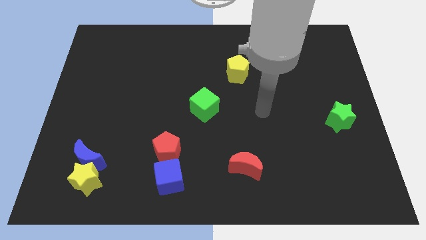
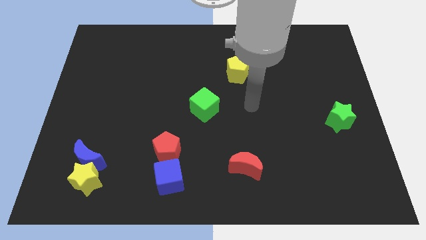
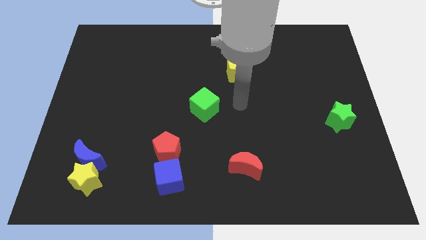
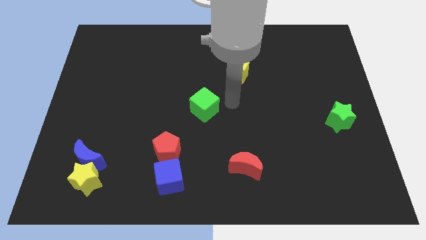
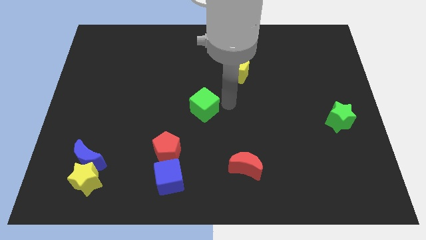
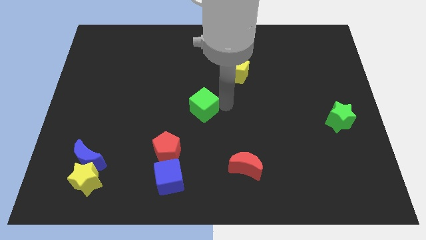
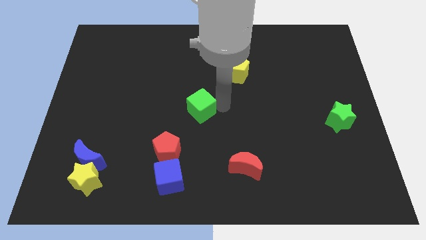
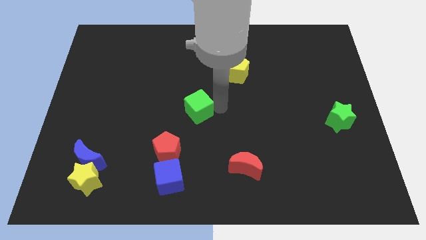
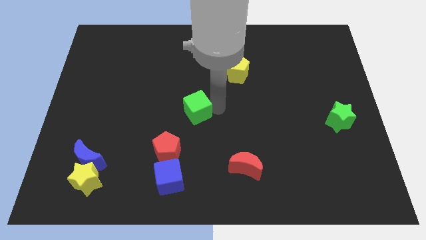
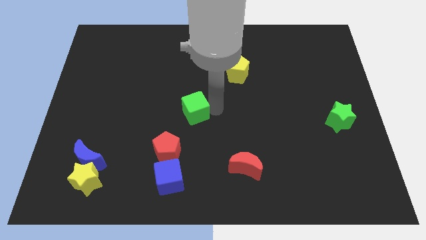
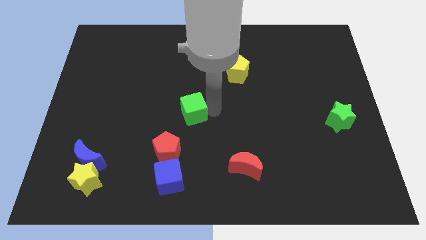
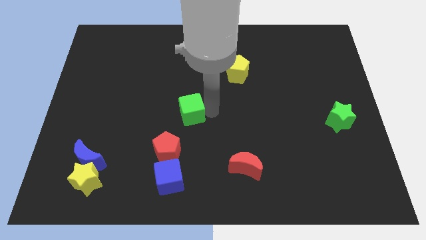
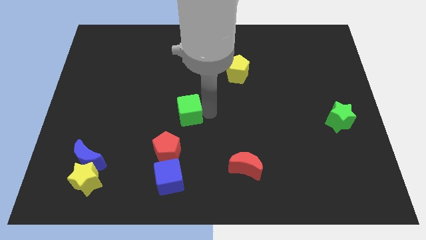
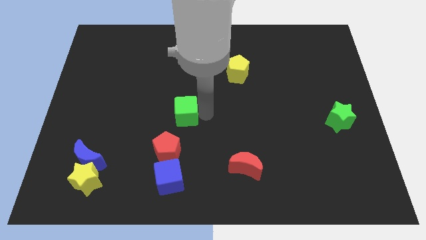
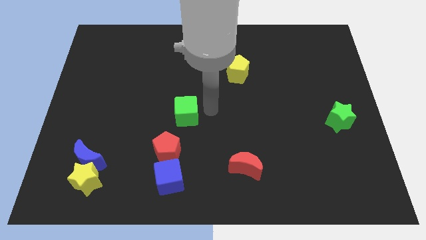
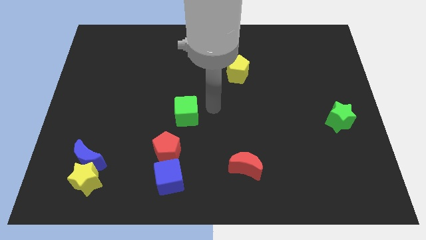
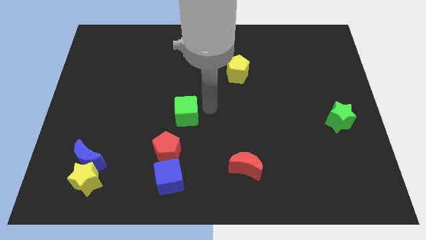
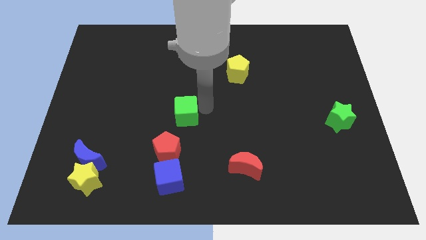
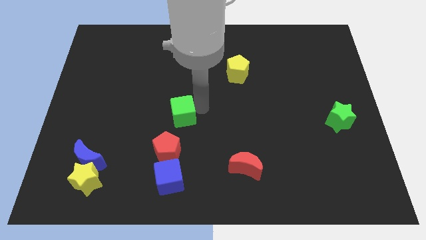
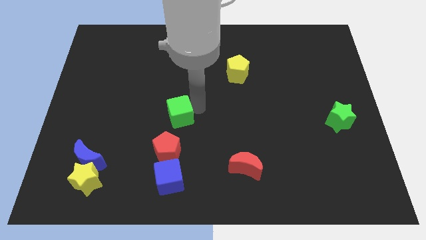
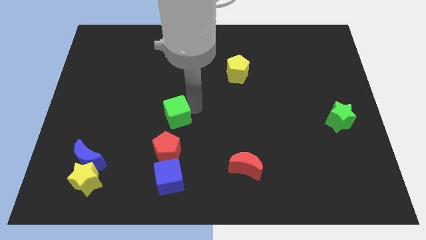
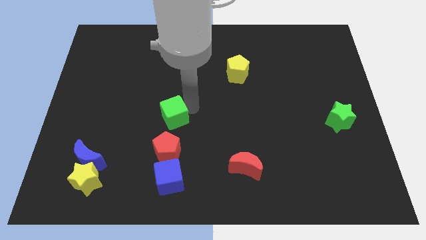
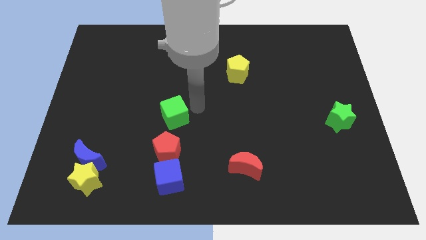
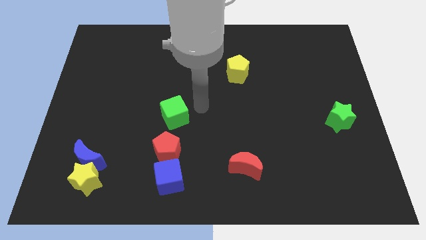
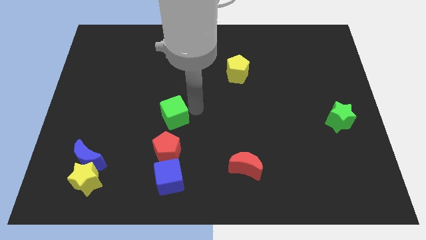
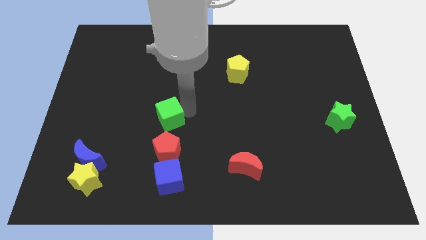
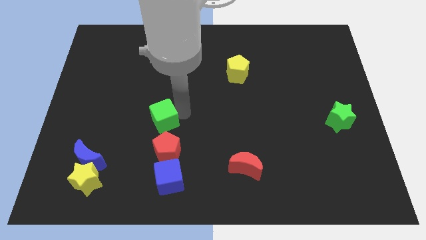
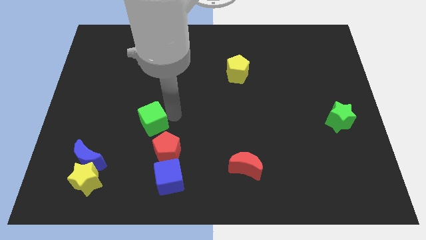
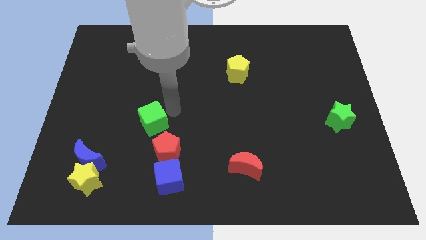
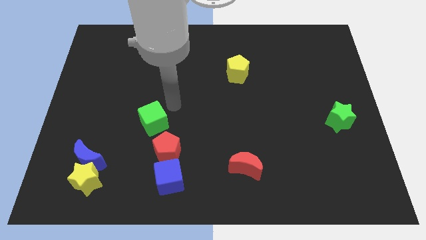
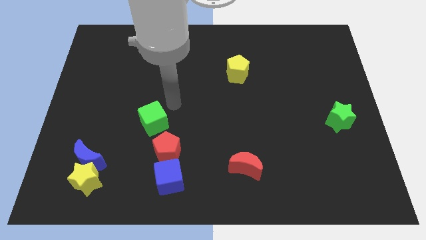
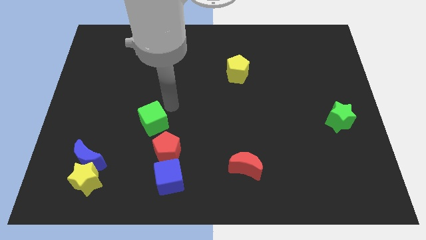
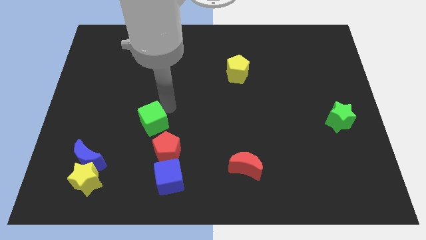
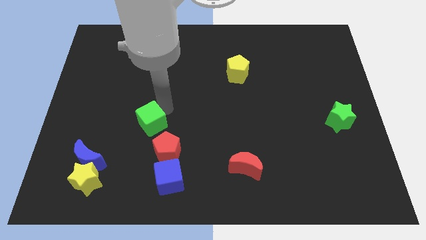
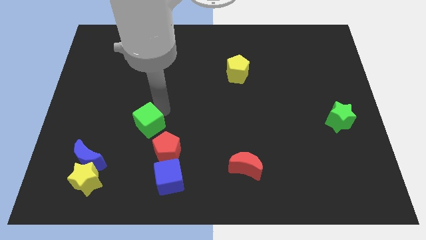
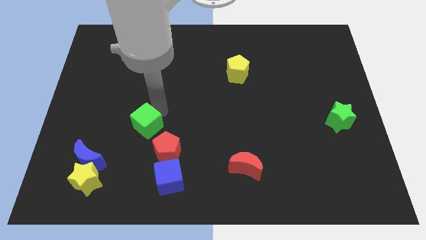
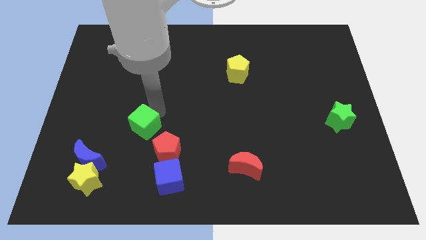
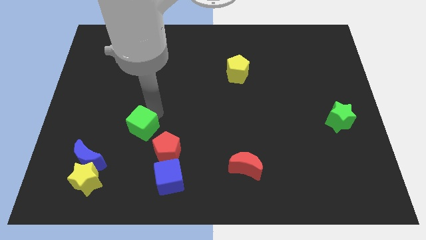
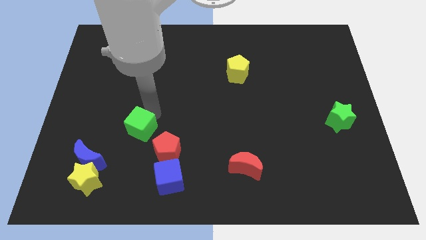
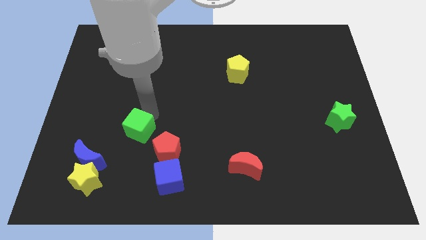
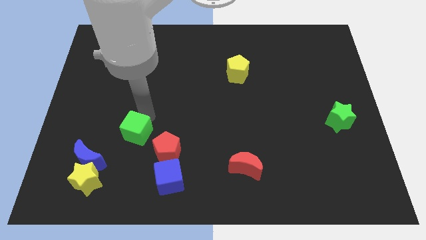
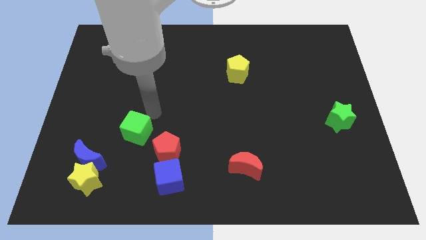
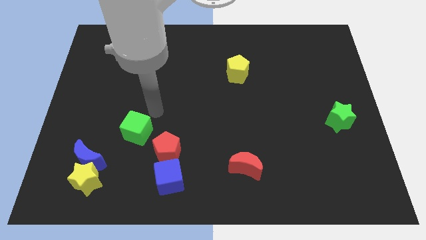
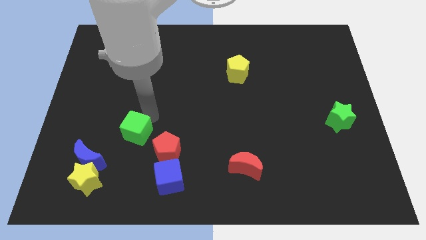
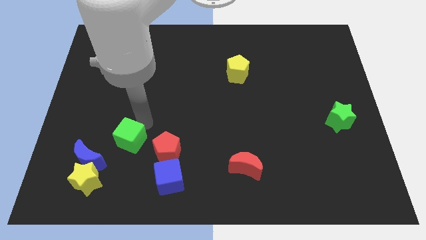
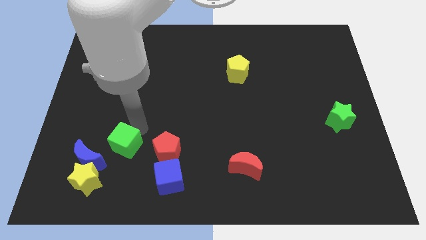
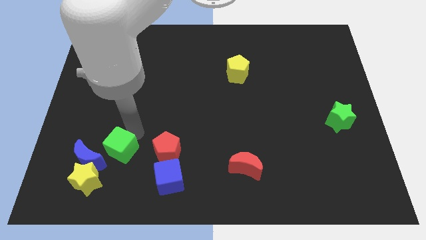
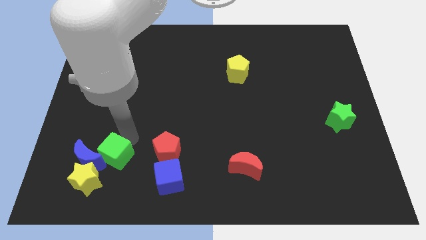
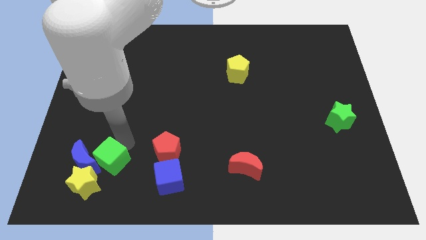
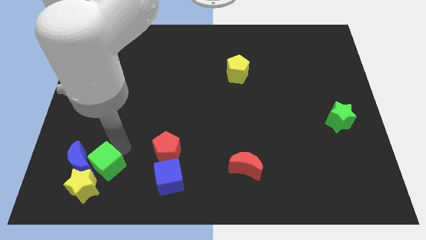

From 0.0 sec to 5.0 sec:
put the green cube towards the yellow star

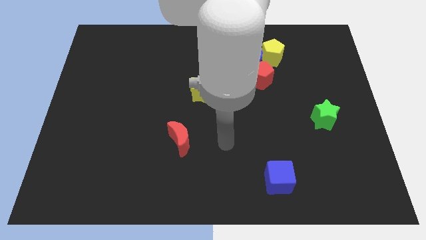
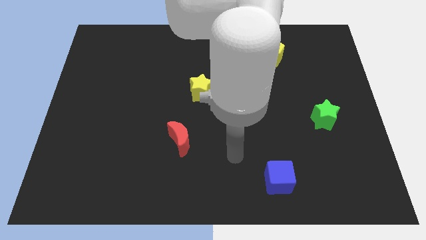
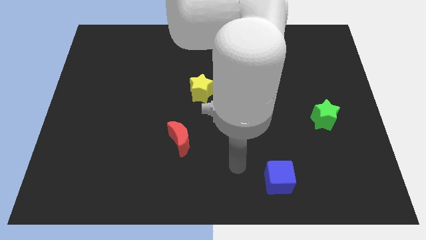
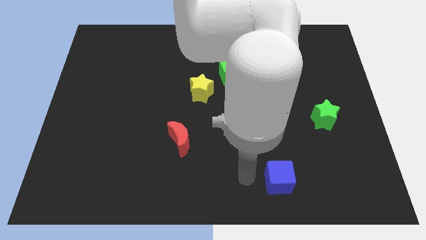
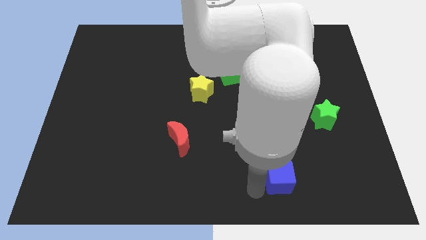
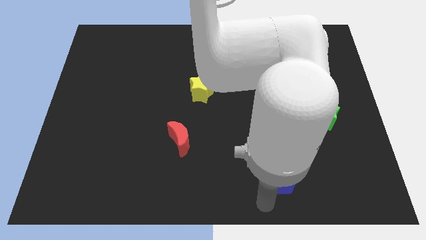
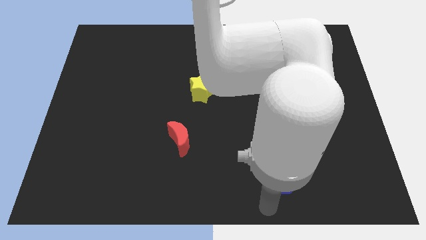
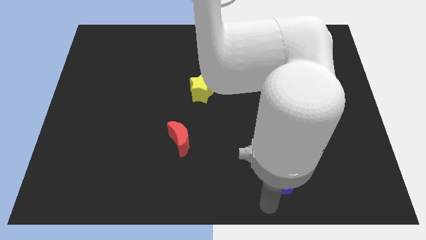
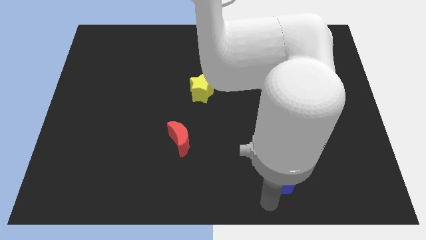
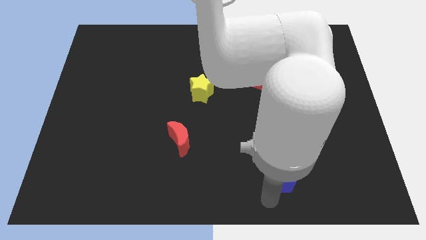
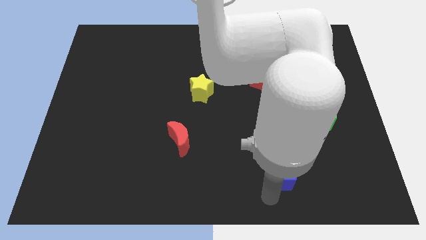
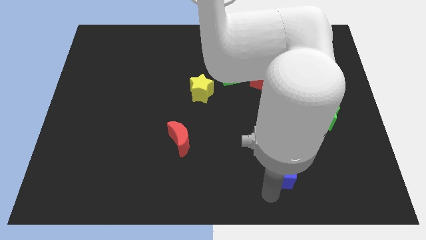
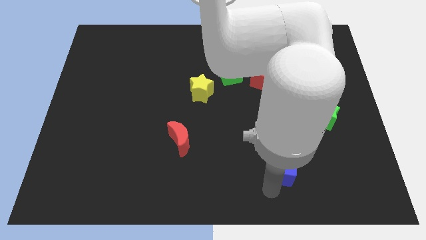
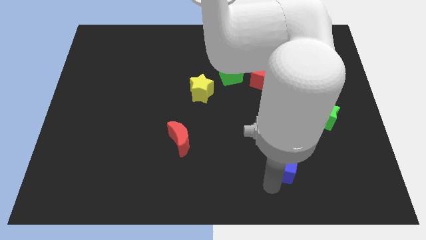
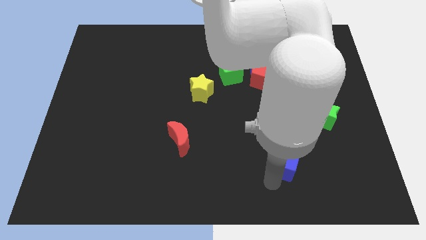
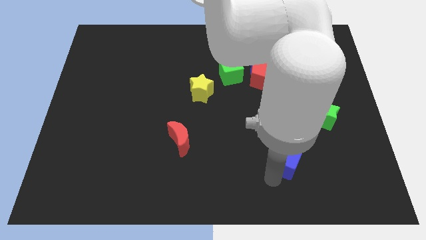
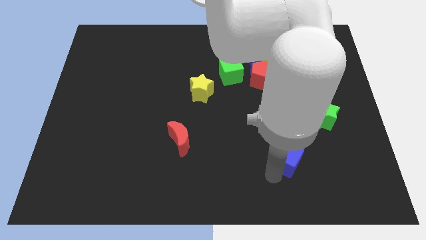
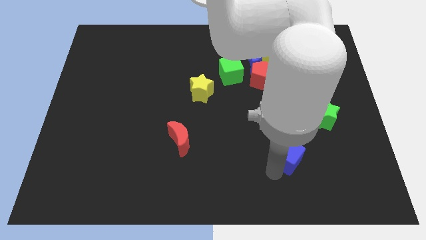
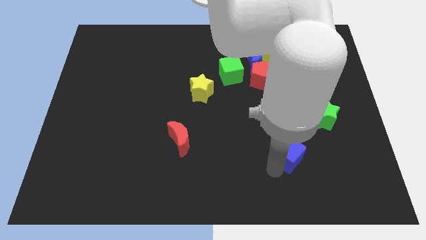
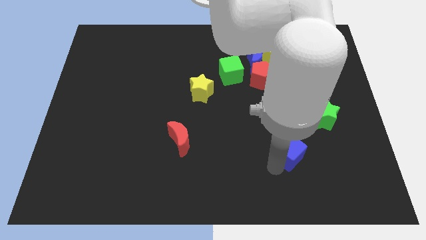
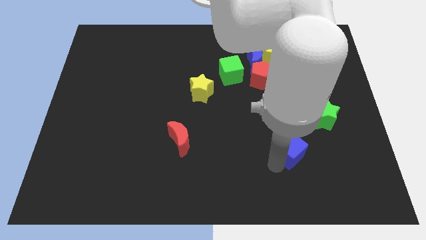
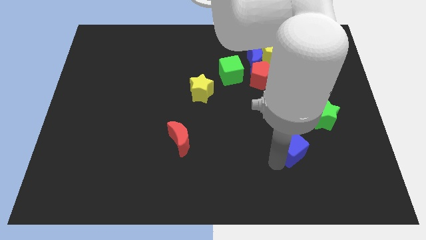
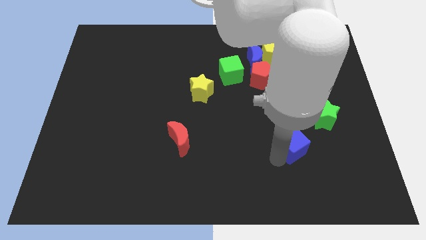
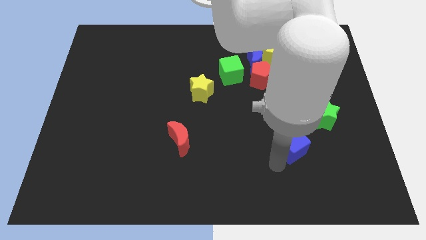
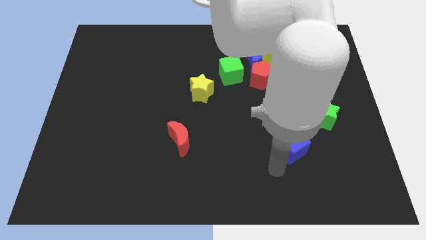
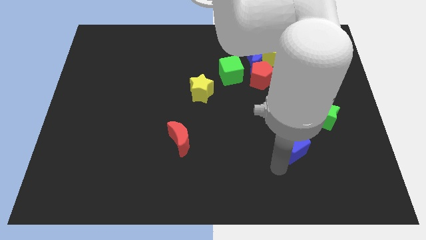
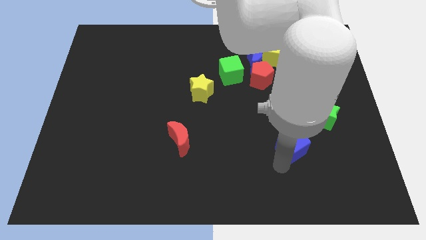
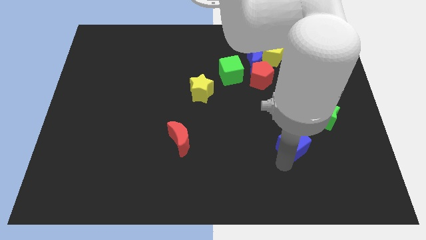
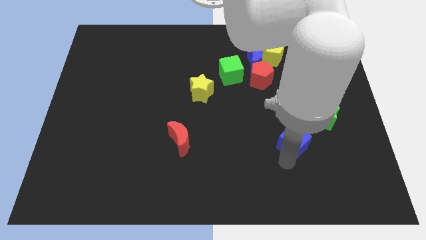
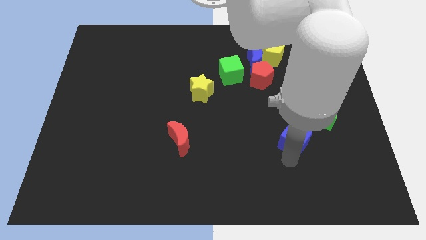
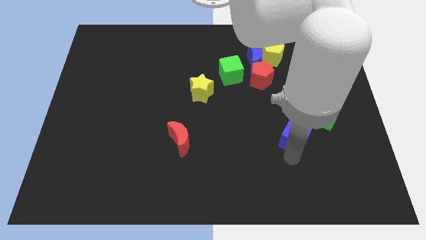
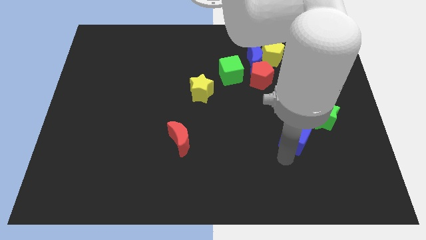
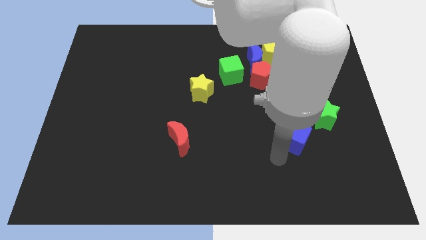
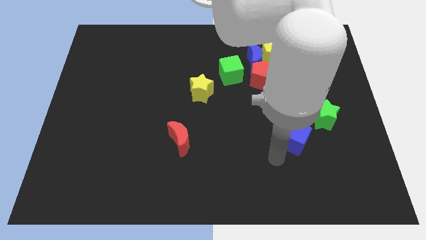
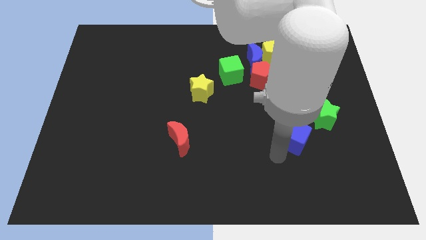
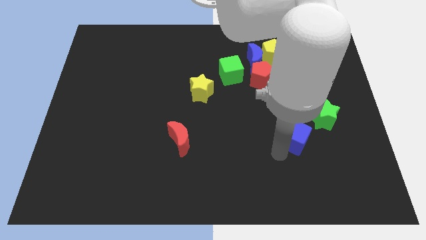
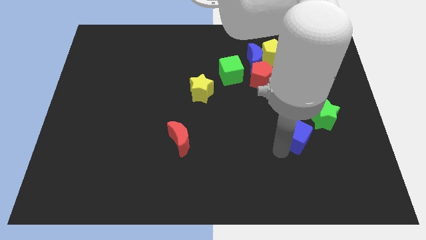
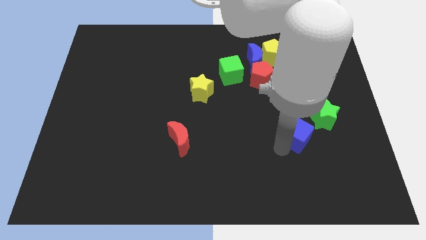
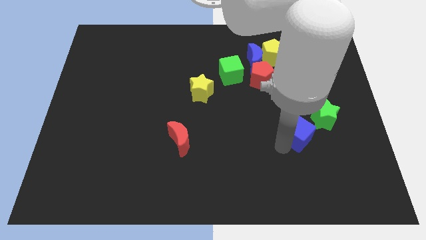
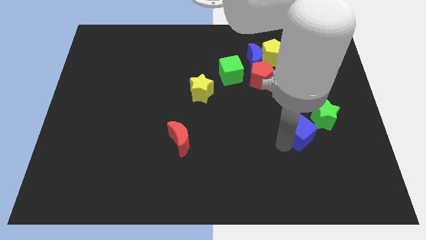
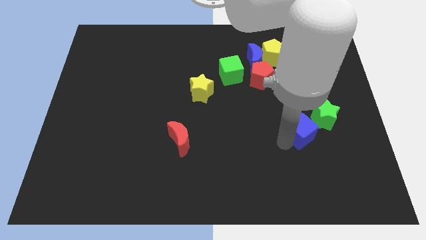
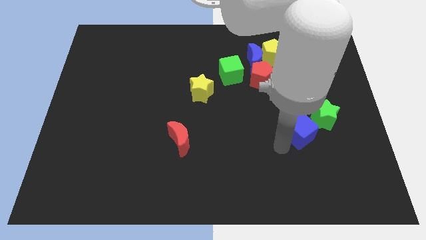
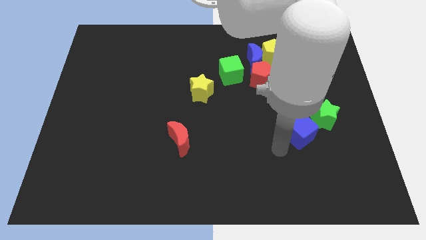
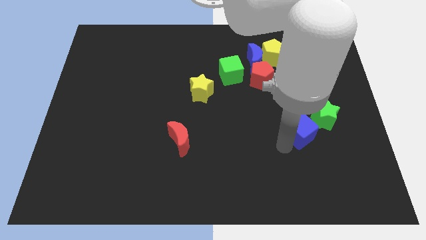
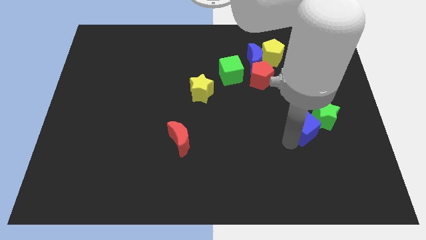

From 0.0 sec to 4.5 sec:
slide the blue cube next to the green star
